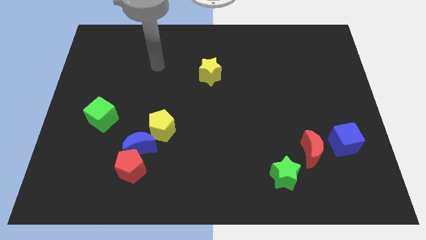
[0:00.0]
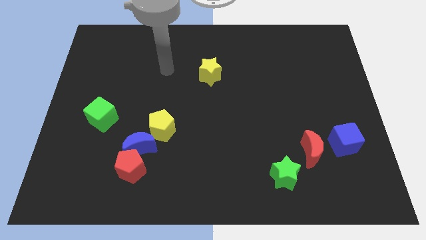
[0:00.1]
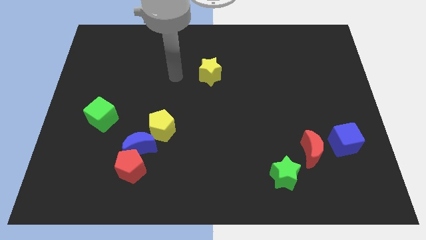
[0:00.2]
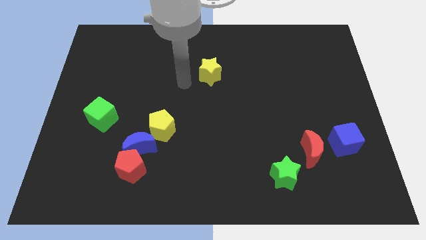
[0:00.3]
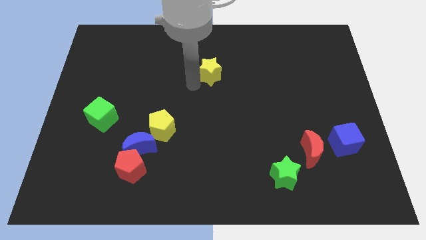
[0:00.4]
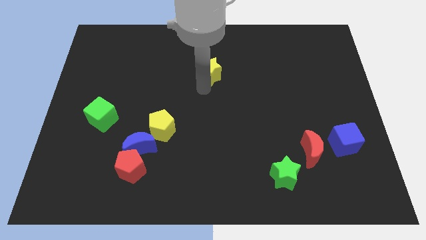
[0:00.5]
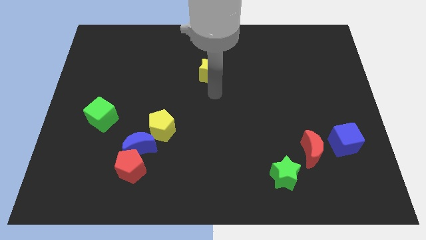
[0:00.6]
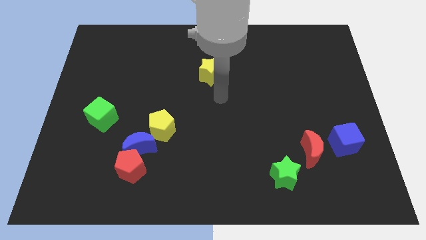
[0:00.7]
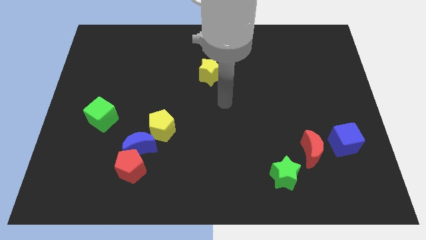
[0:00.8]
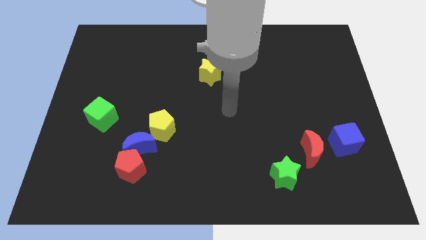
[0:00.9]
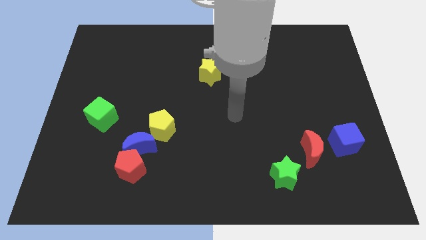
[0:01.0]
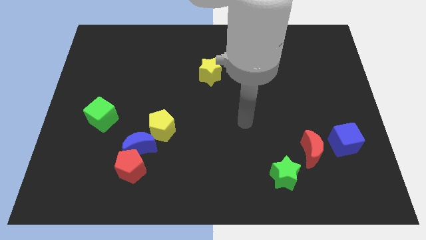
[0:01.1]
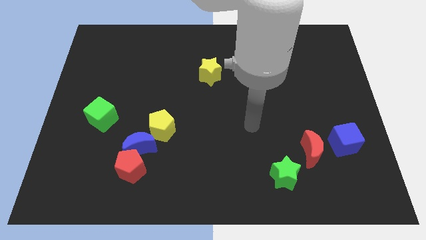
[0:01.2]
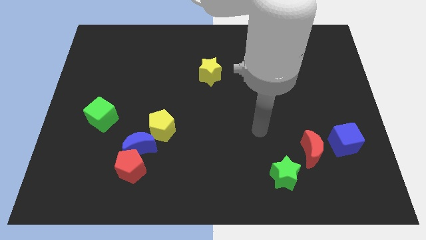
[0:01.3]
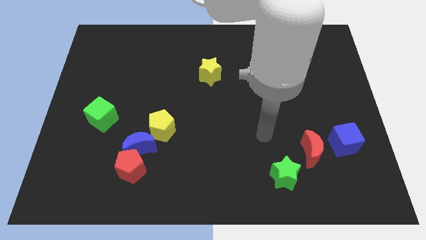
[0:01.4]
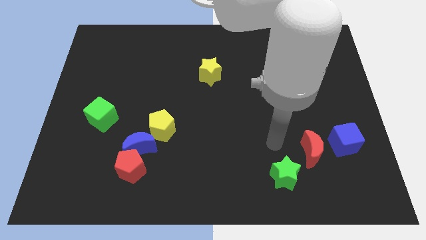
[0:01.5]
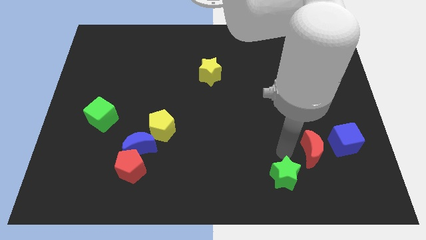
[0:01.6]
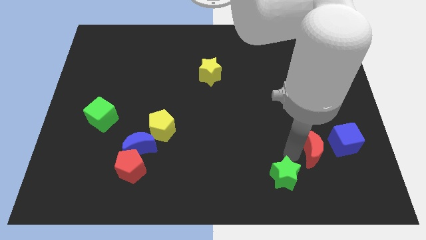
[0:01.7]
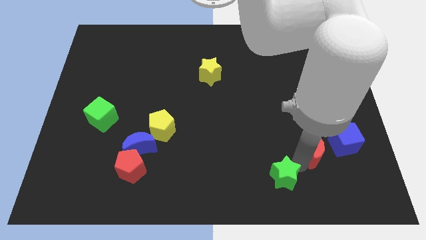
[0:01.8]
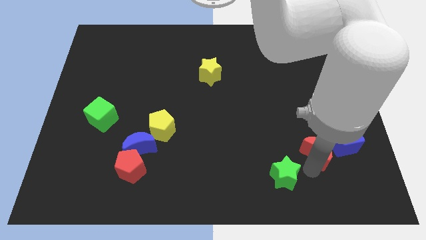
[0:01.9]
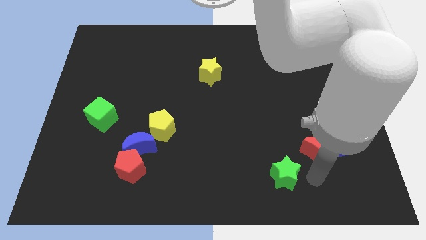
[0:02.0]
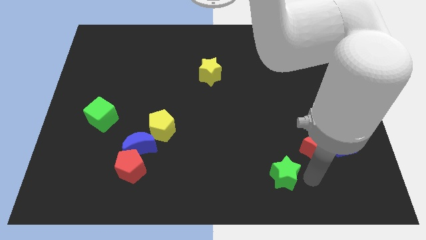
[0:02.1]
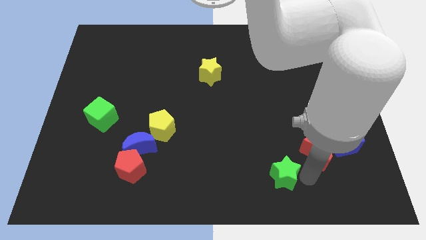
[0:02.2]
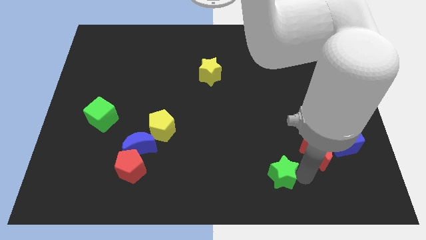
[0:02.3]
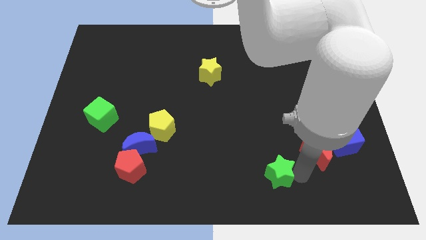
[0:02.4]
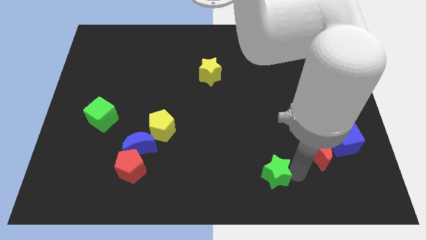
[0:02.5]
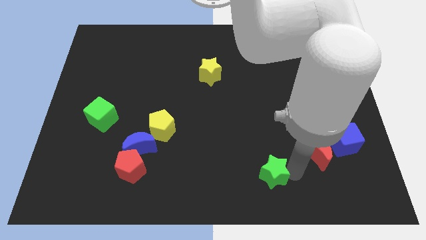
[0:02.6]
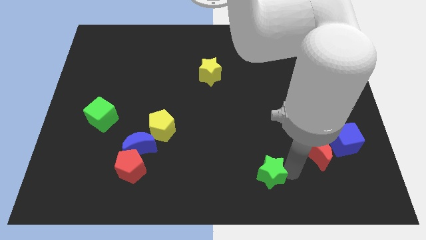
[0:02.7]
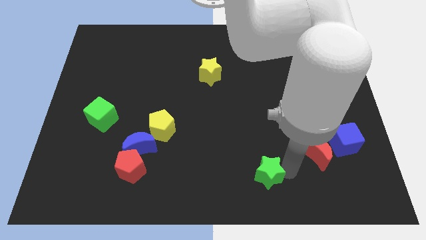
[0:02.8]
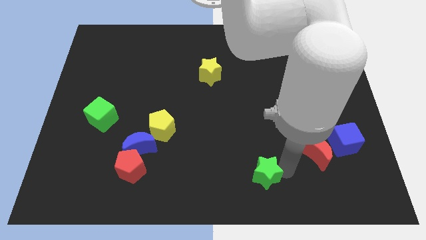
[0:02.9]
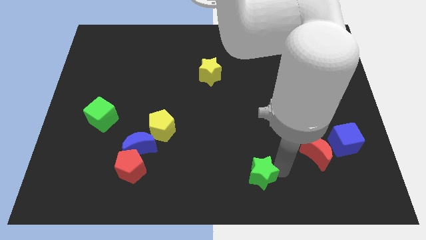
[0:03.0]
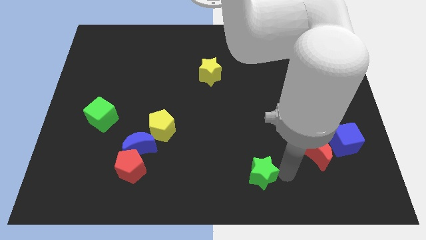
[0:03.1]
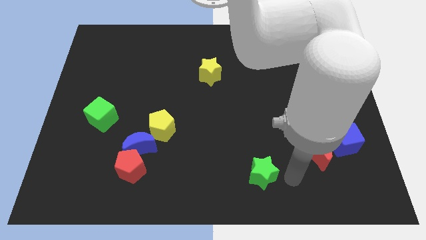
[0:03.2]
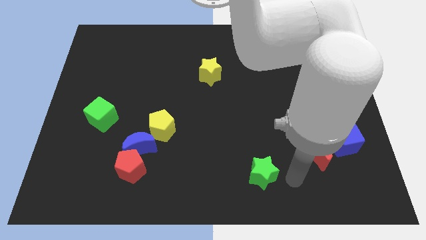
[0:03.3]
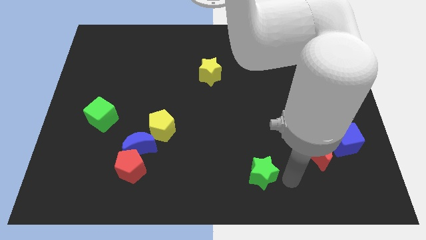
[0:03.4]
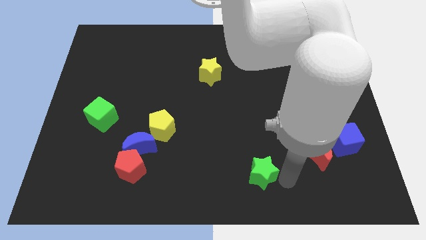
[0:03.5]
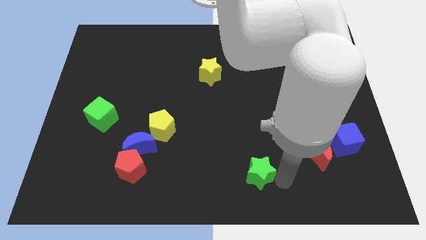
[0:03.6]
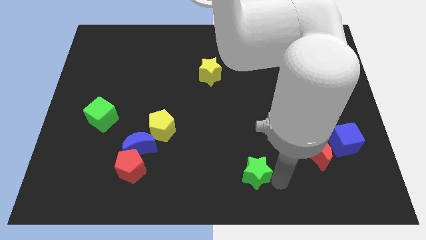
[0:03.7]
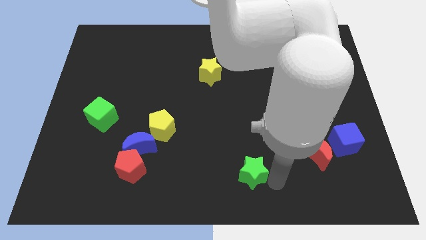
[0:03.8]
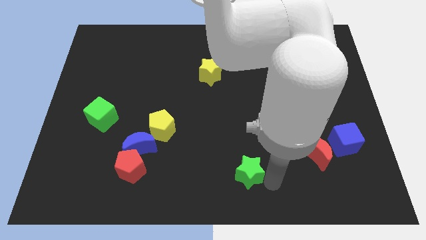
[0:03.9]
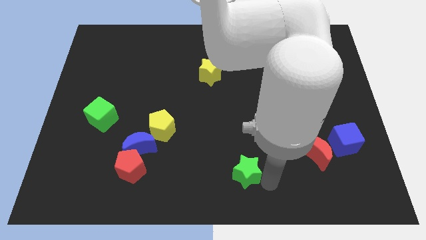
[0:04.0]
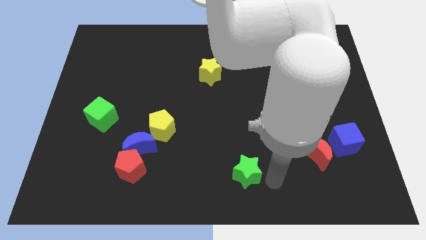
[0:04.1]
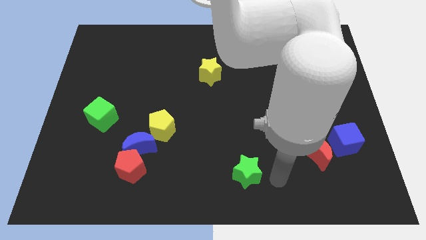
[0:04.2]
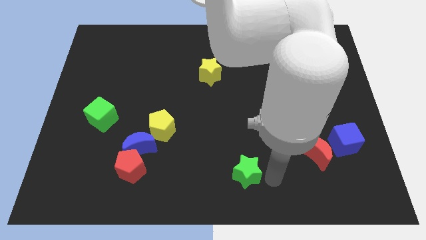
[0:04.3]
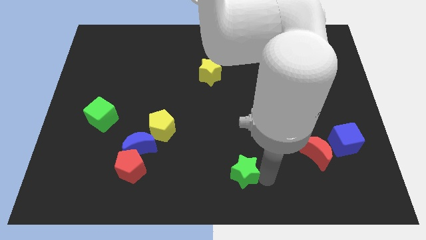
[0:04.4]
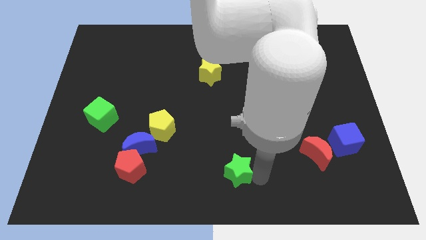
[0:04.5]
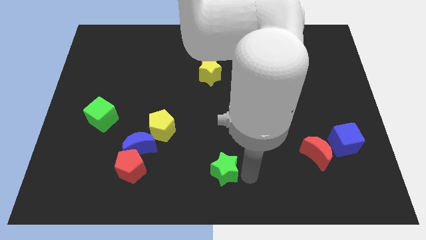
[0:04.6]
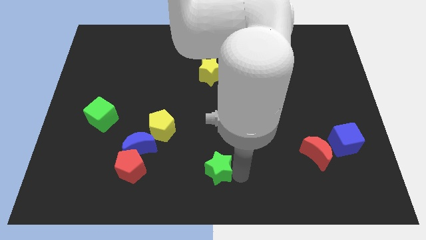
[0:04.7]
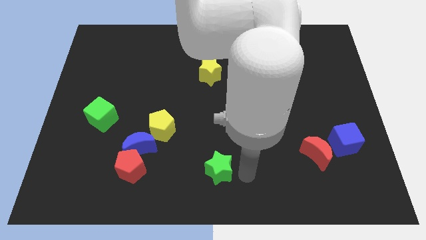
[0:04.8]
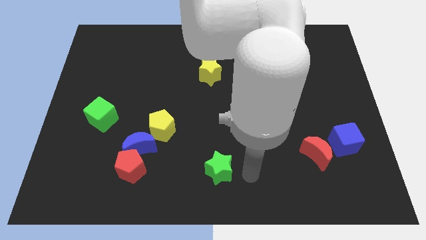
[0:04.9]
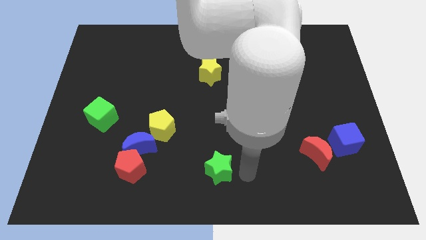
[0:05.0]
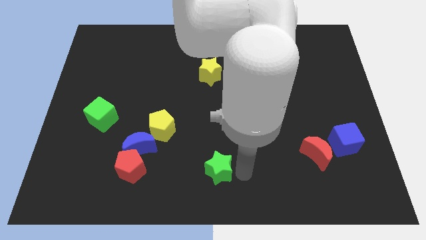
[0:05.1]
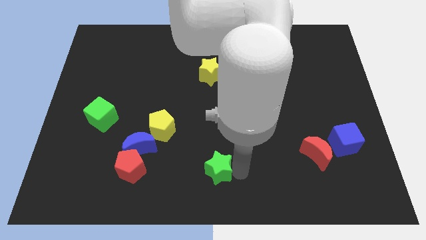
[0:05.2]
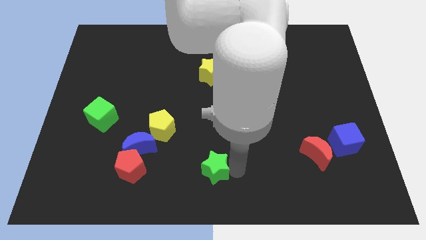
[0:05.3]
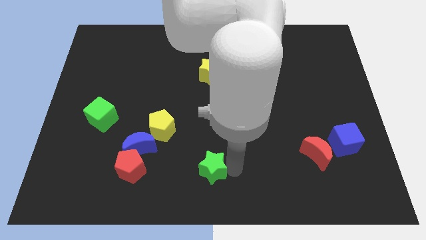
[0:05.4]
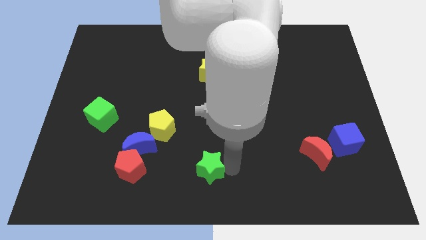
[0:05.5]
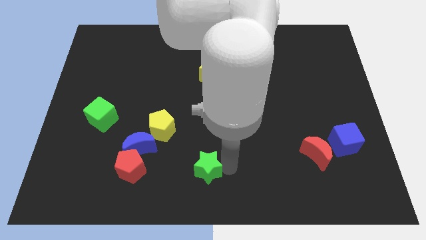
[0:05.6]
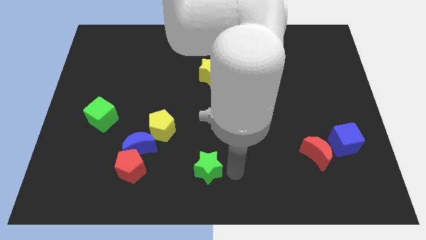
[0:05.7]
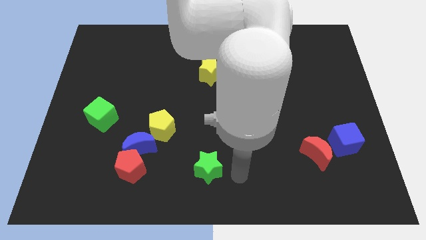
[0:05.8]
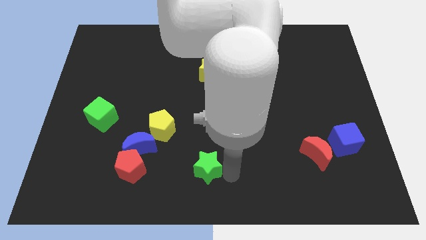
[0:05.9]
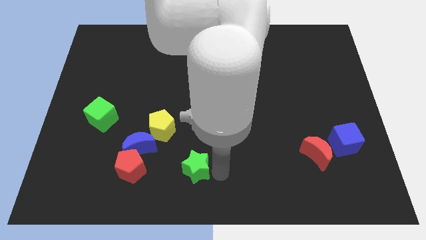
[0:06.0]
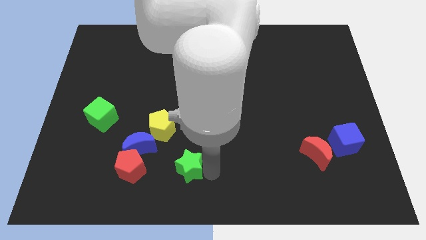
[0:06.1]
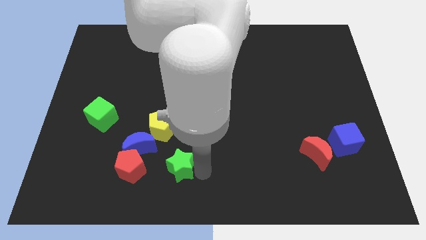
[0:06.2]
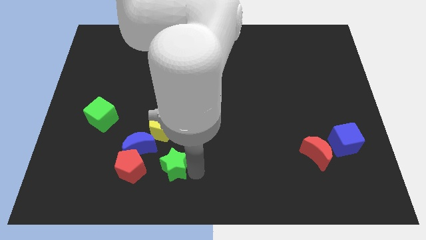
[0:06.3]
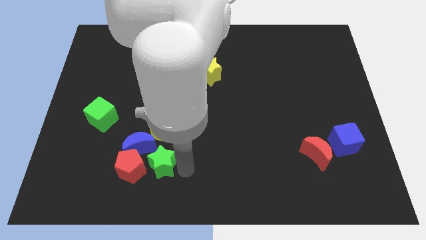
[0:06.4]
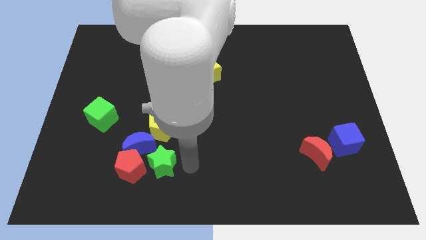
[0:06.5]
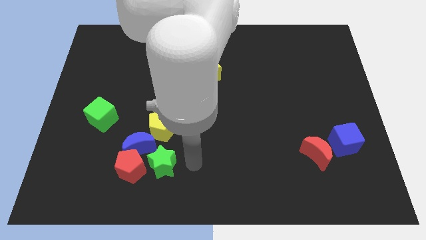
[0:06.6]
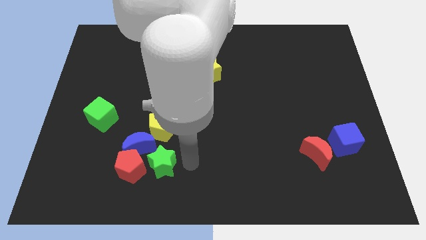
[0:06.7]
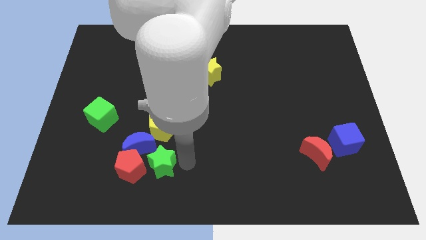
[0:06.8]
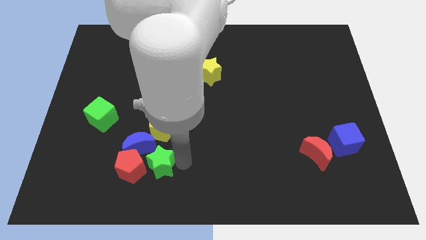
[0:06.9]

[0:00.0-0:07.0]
push the green star to the red pentagon
